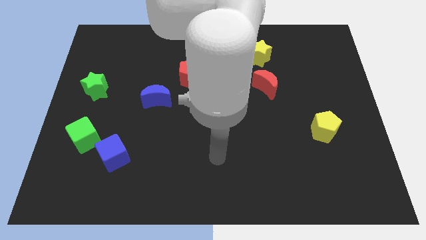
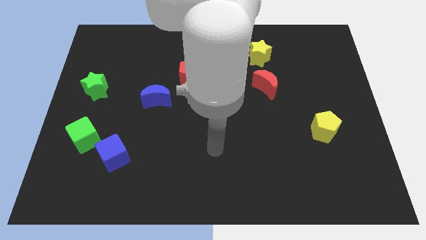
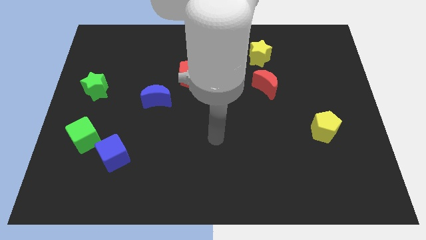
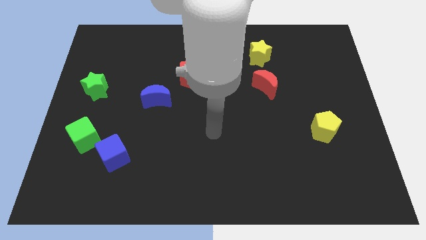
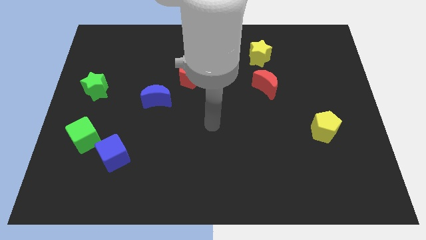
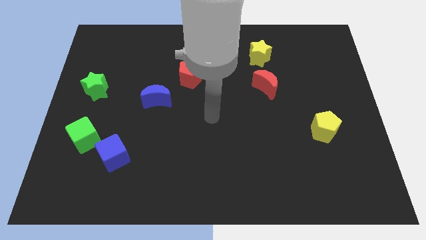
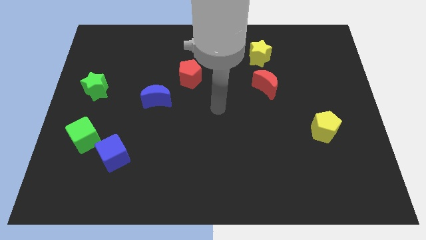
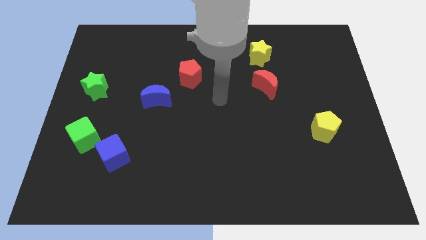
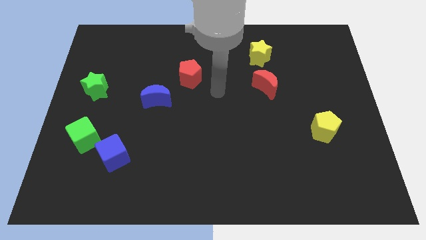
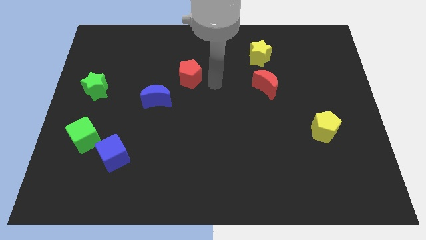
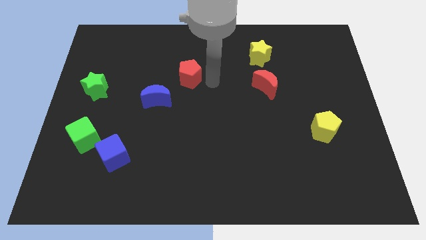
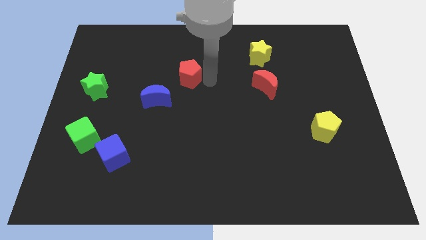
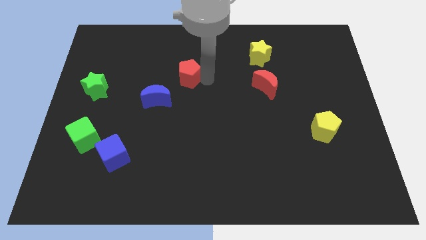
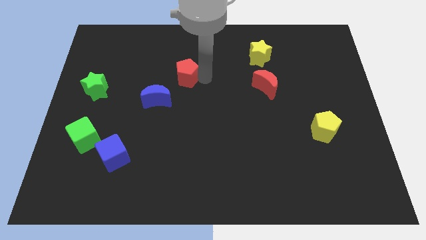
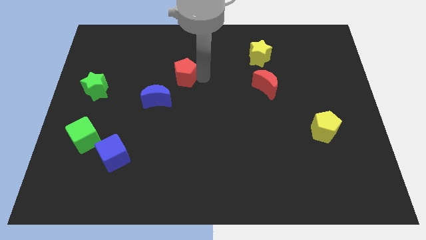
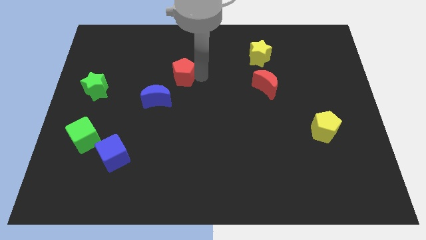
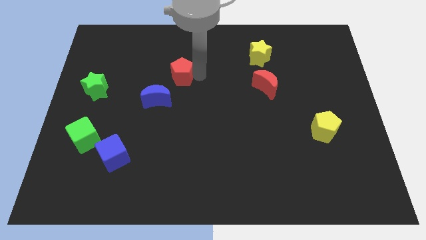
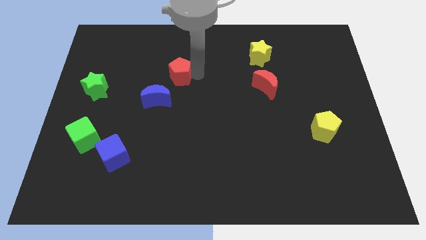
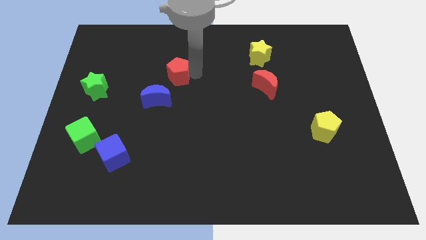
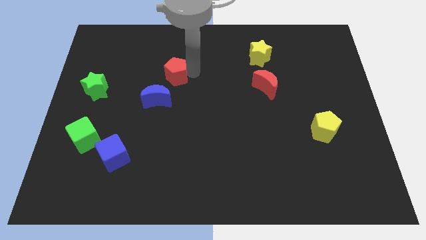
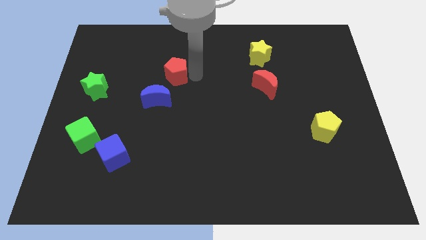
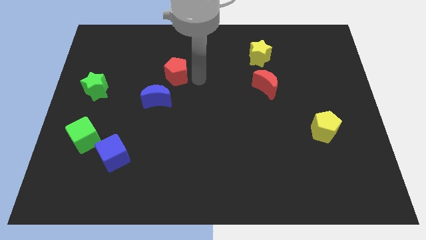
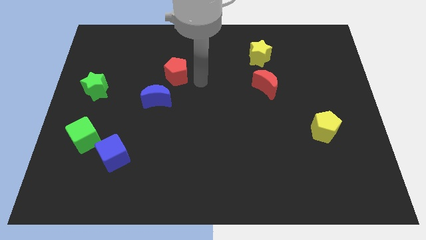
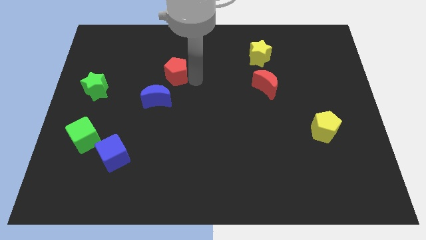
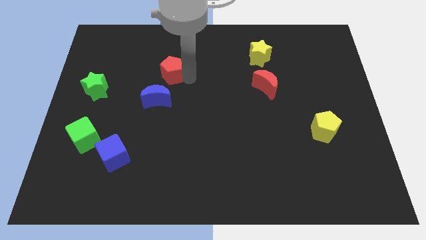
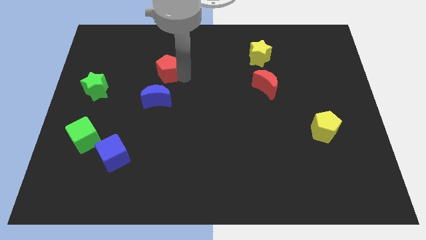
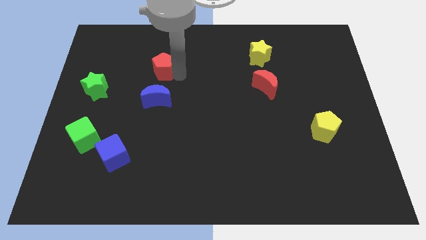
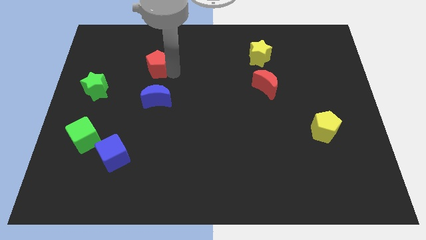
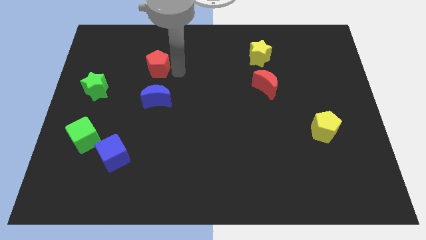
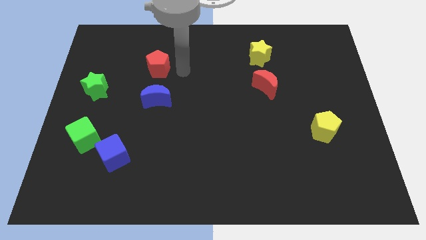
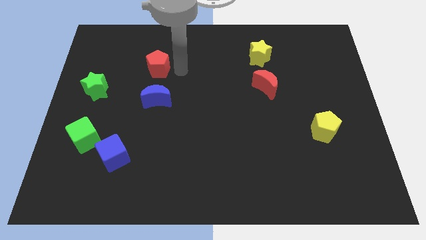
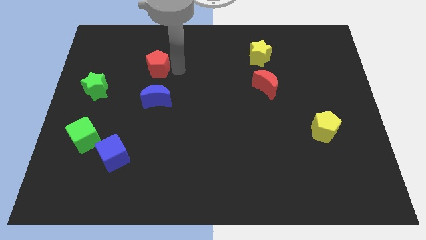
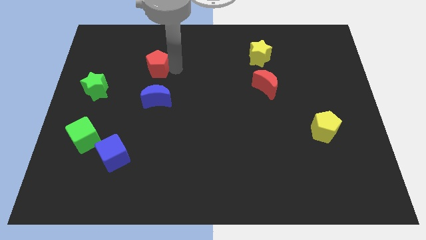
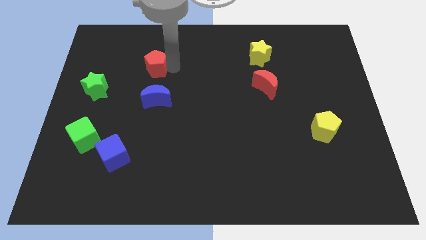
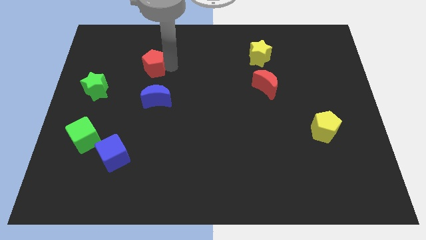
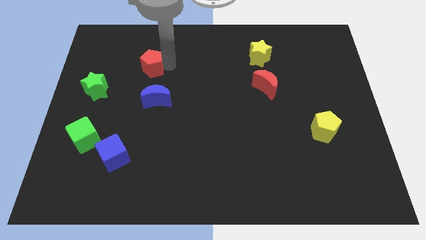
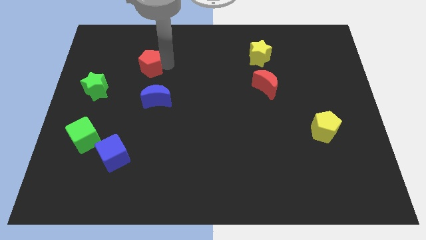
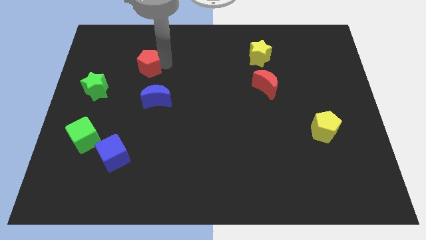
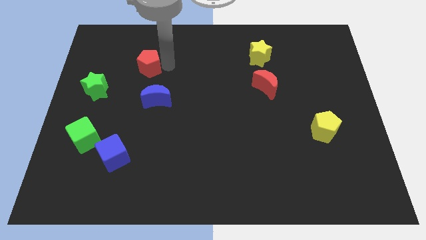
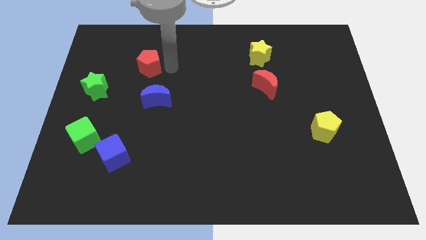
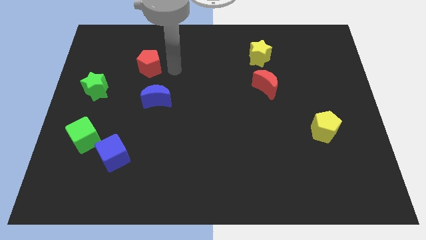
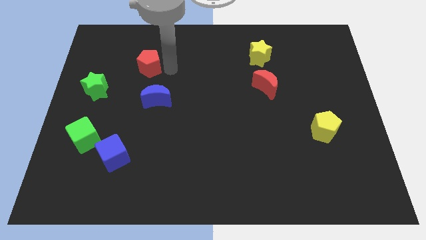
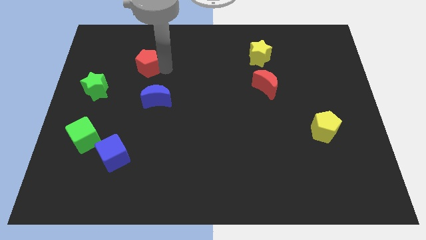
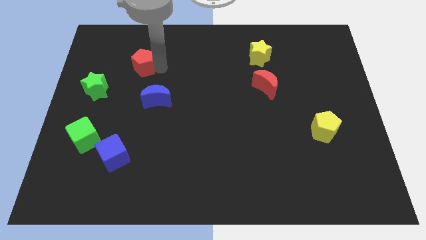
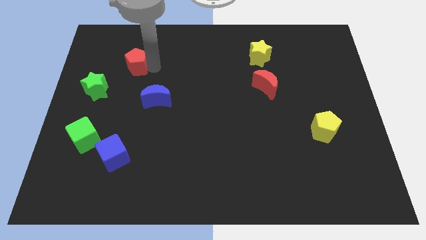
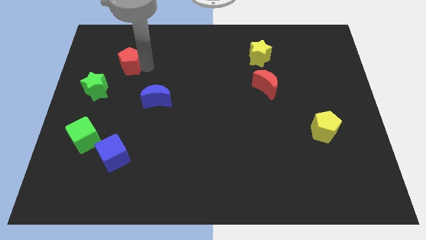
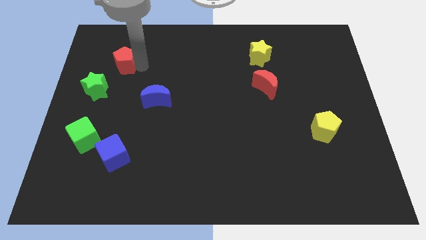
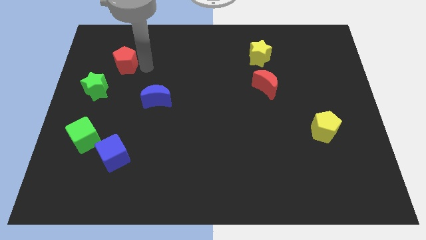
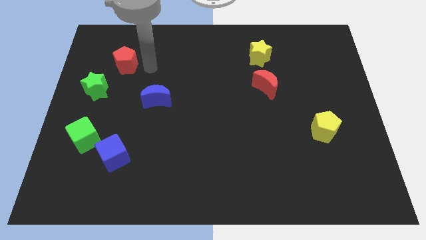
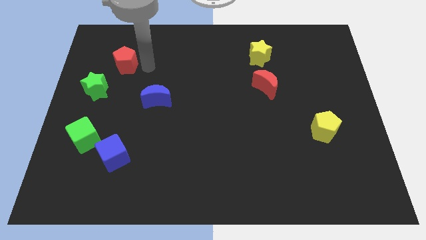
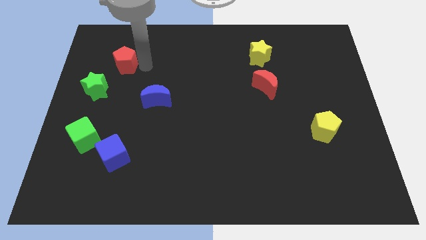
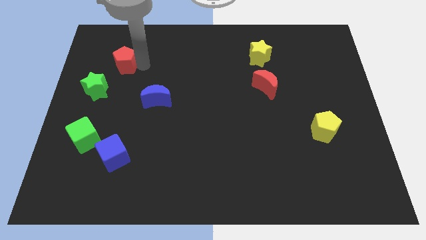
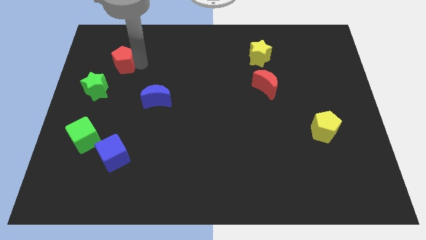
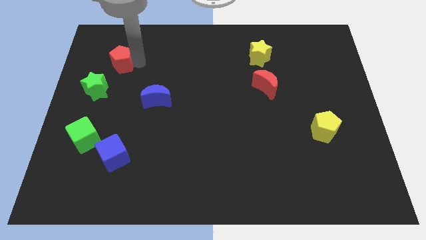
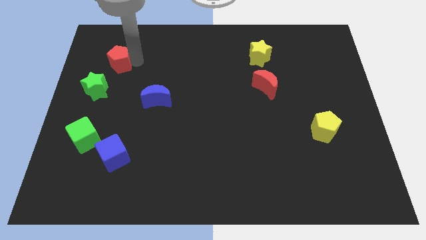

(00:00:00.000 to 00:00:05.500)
push the red pentagon to the top of the green star

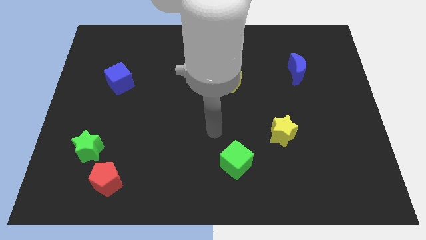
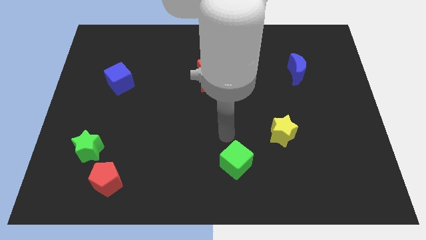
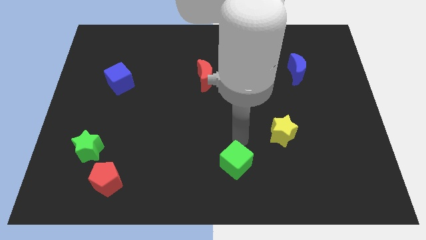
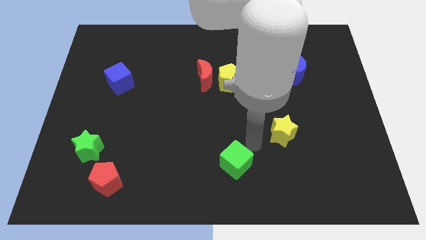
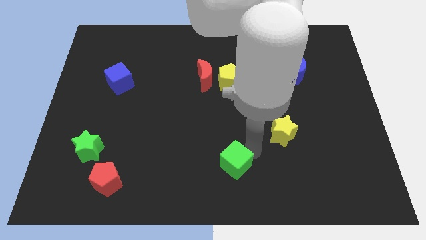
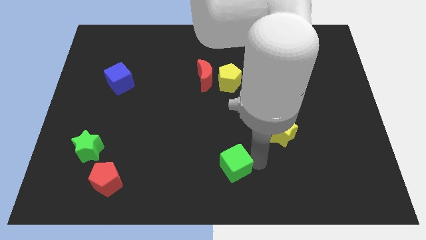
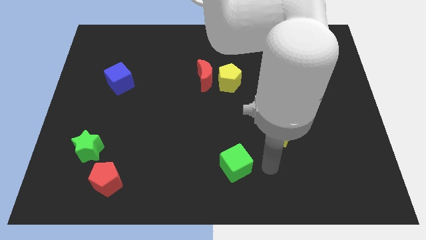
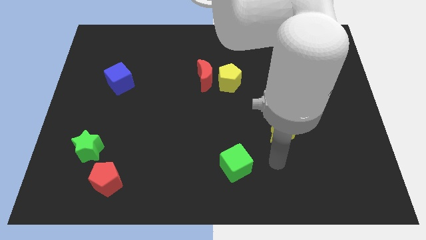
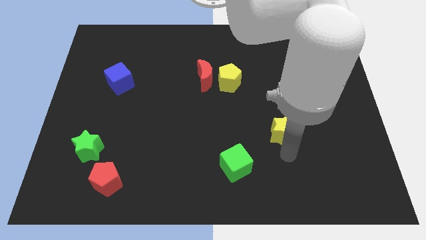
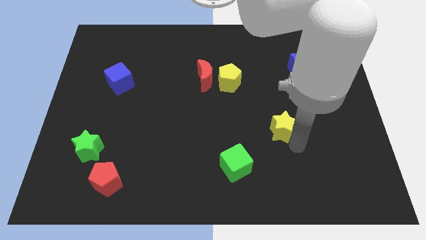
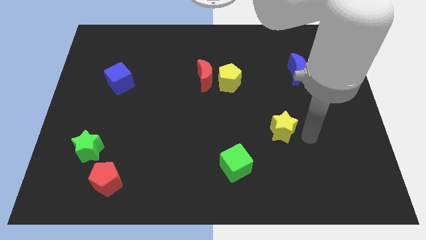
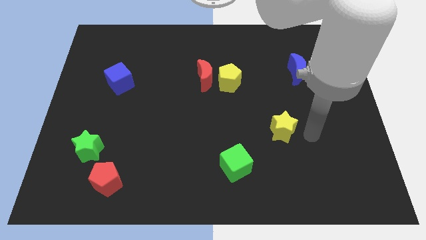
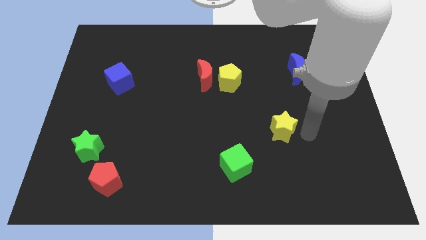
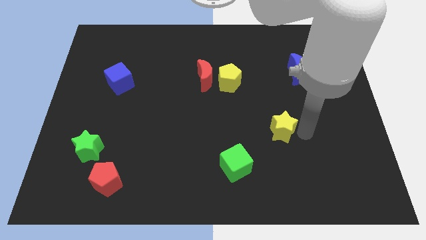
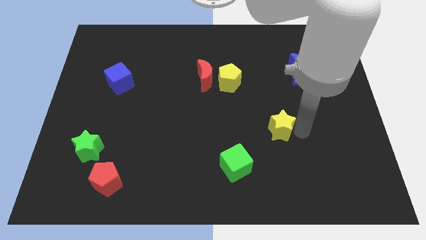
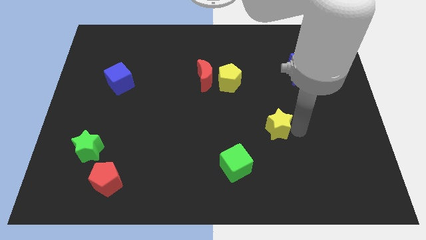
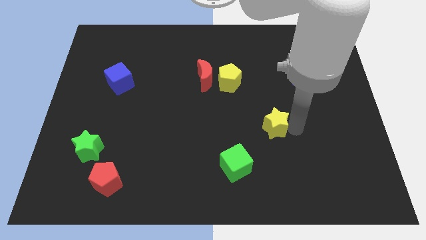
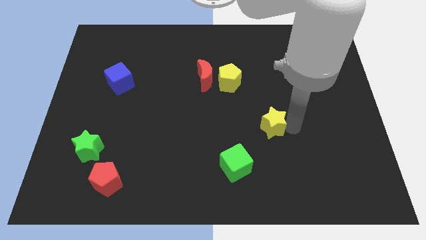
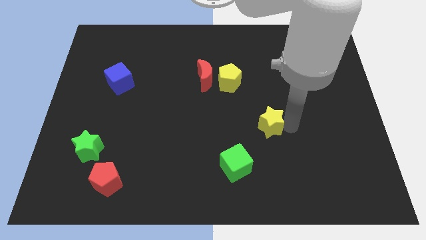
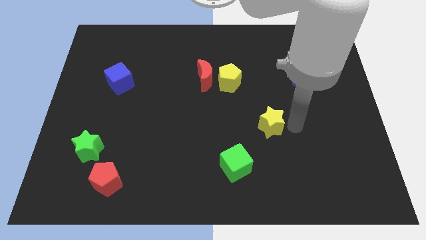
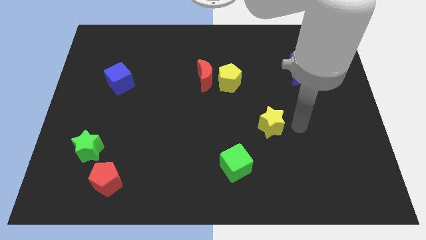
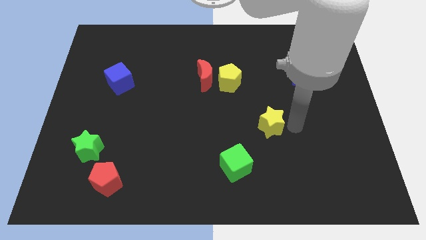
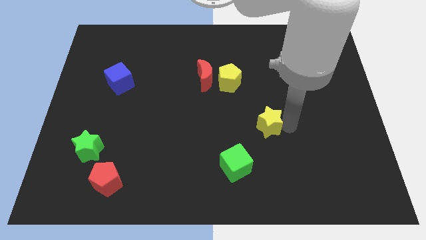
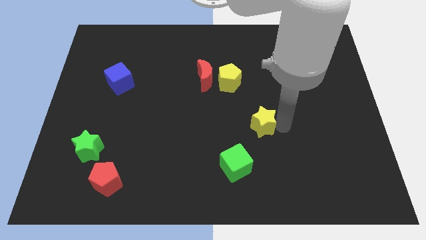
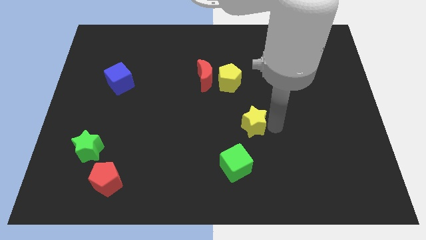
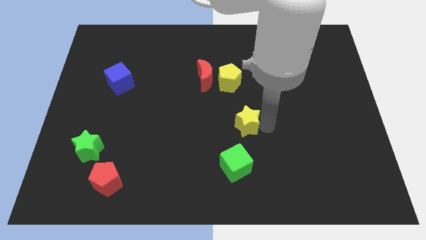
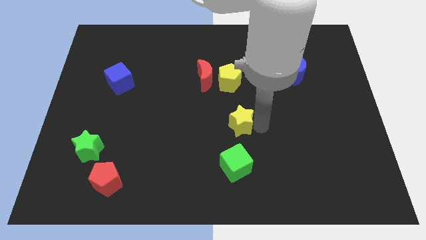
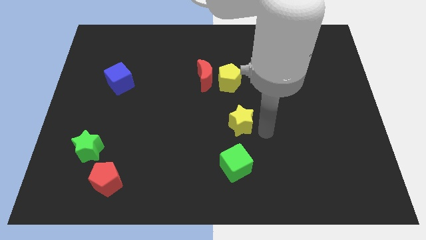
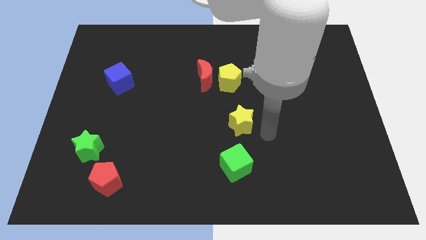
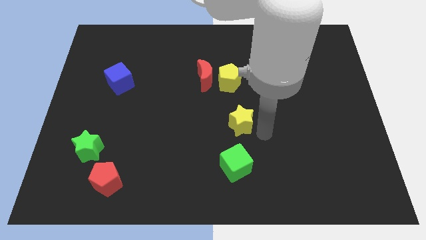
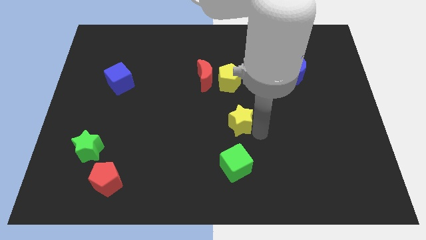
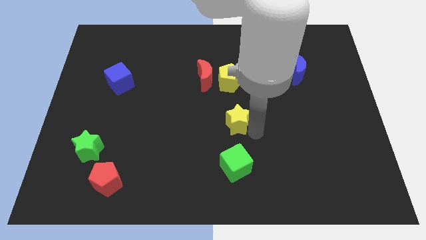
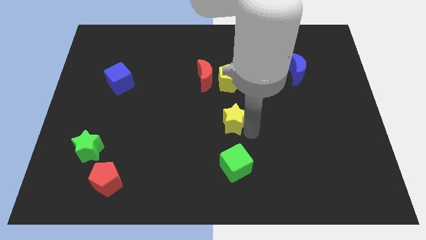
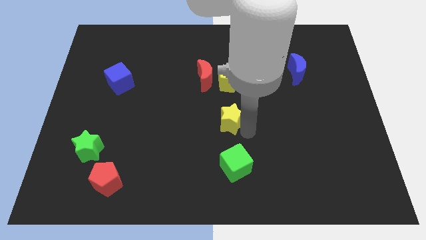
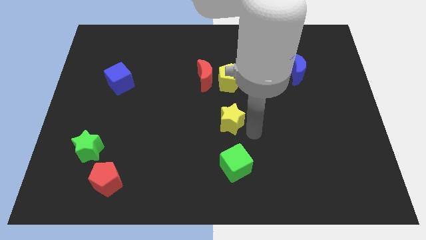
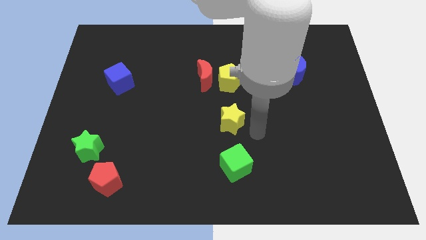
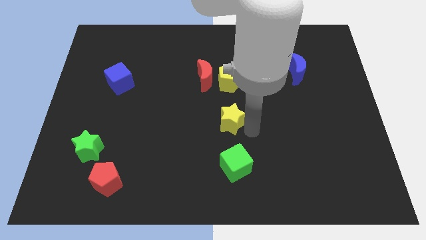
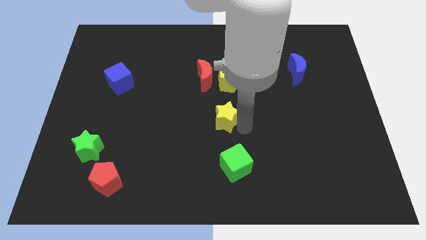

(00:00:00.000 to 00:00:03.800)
move the yellow star to the bottom of the red moon
